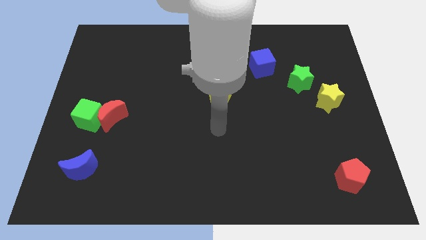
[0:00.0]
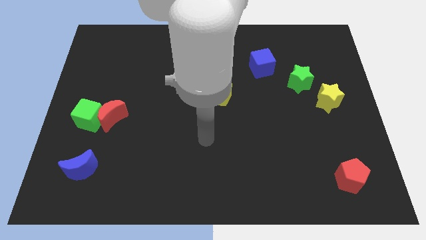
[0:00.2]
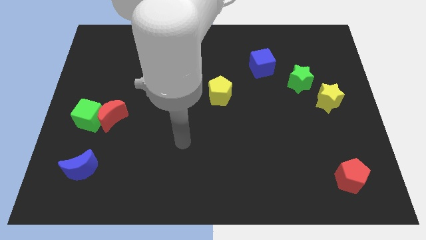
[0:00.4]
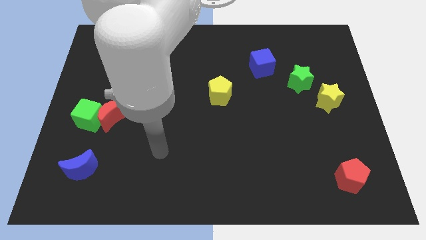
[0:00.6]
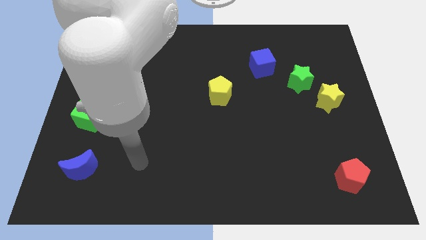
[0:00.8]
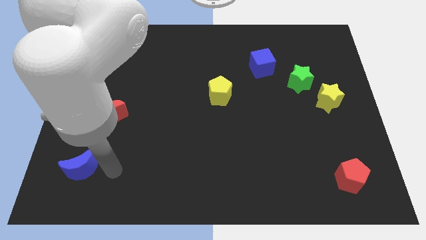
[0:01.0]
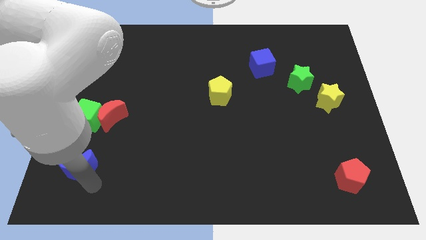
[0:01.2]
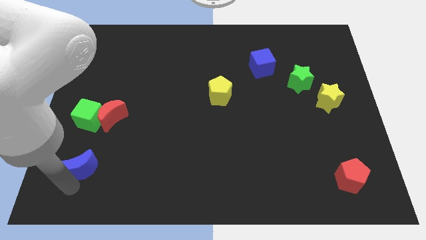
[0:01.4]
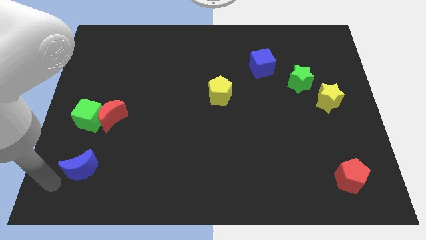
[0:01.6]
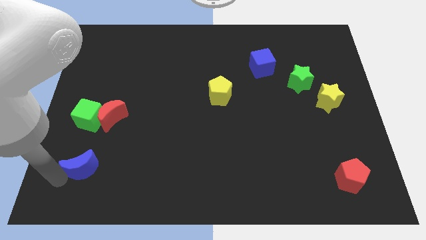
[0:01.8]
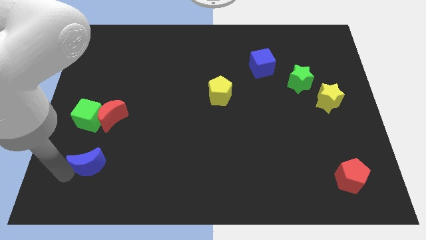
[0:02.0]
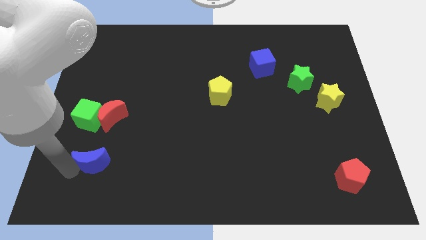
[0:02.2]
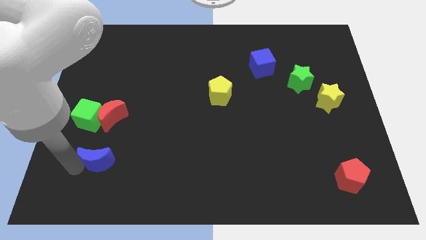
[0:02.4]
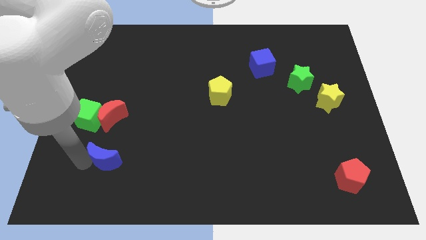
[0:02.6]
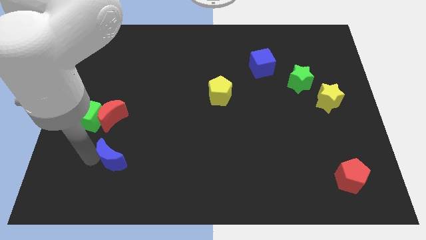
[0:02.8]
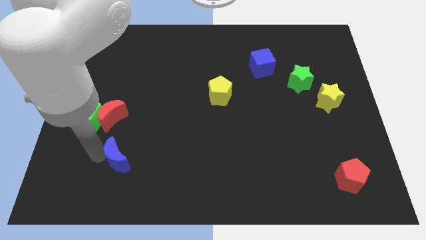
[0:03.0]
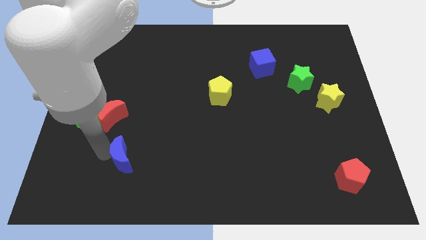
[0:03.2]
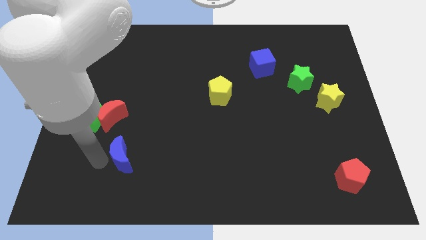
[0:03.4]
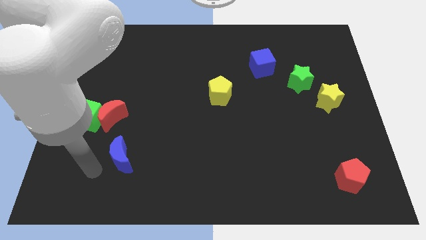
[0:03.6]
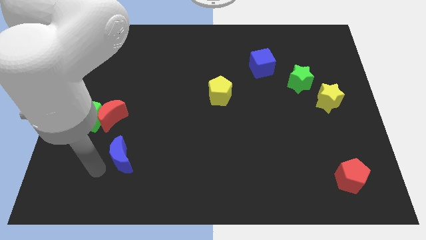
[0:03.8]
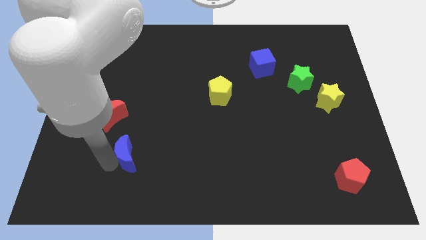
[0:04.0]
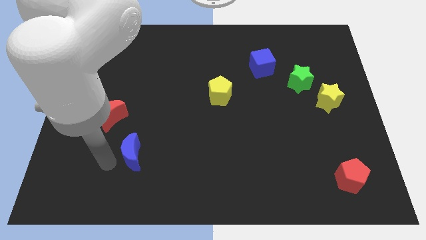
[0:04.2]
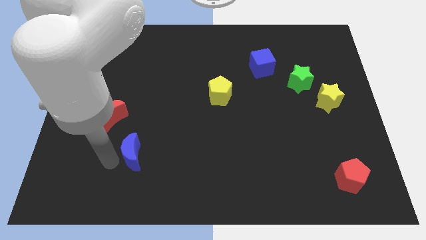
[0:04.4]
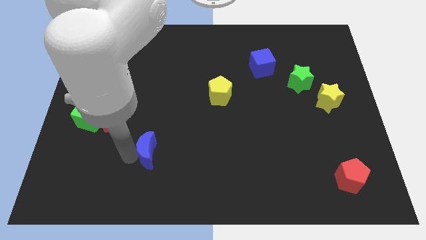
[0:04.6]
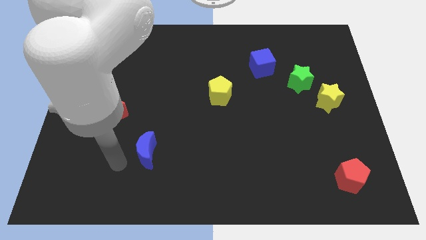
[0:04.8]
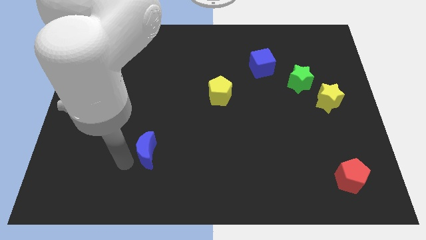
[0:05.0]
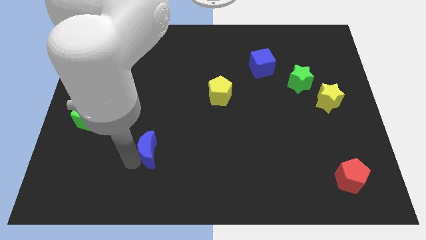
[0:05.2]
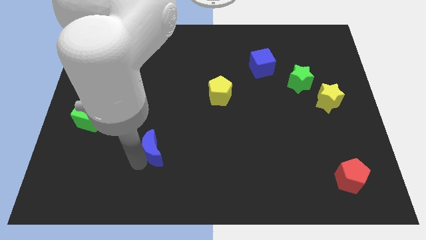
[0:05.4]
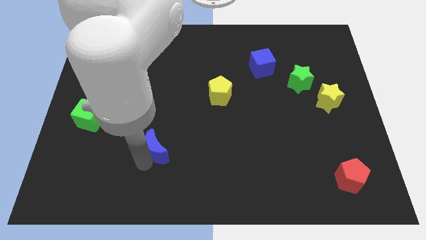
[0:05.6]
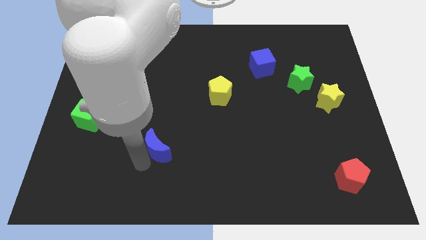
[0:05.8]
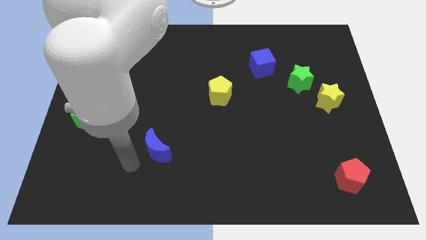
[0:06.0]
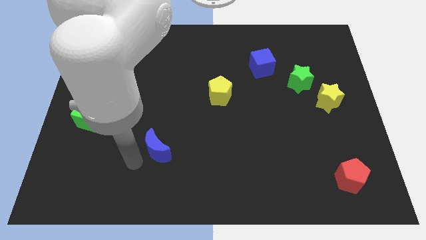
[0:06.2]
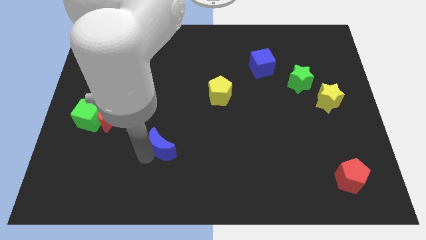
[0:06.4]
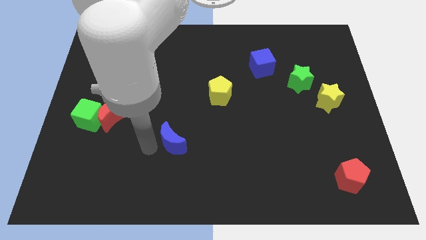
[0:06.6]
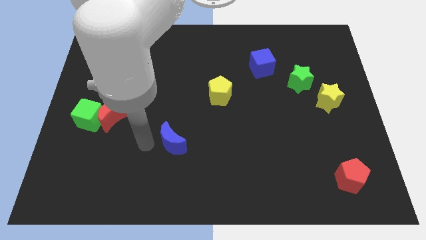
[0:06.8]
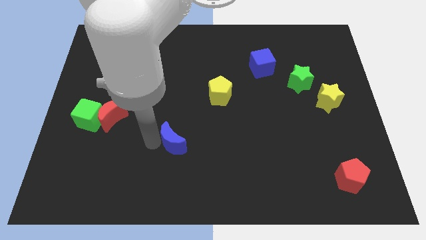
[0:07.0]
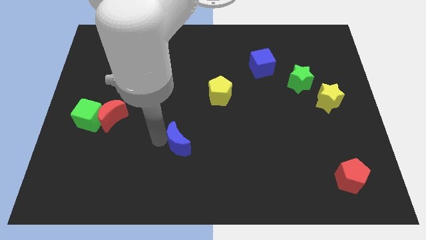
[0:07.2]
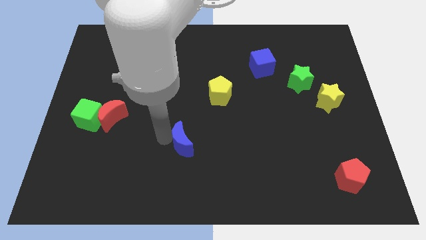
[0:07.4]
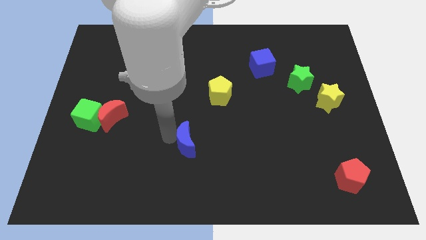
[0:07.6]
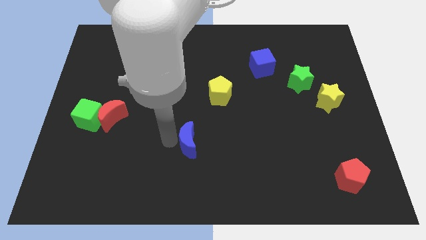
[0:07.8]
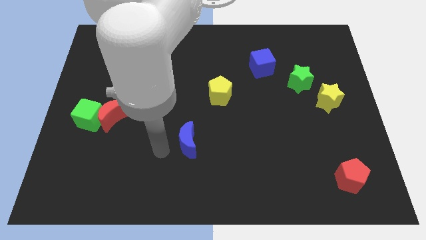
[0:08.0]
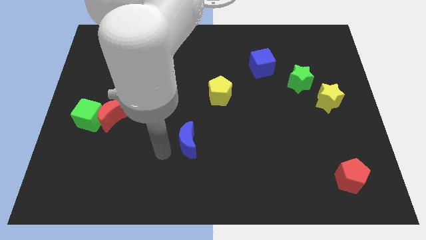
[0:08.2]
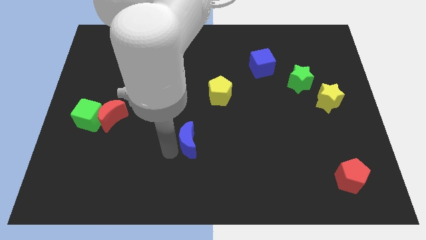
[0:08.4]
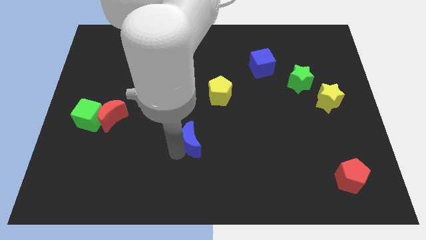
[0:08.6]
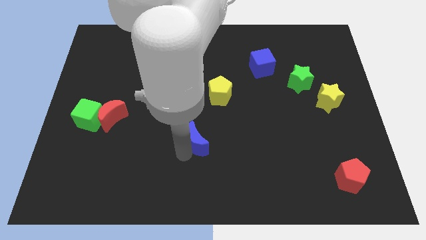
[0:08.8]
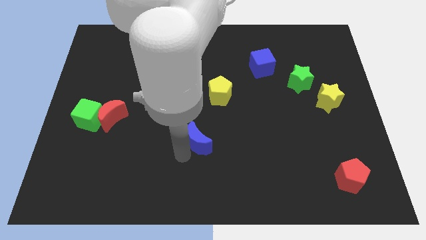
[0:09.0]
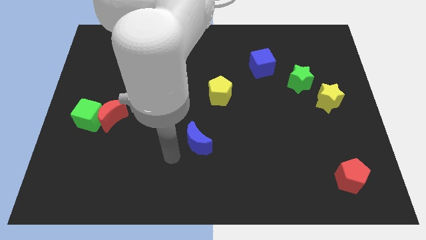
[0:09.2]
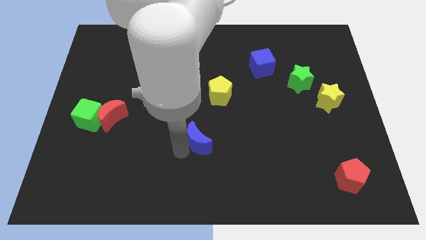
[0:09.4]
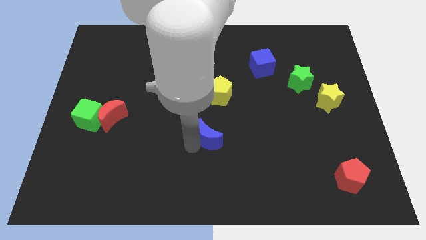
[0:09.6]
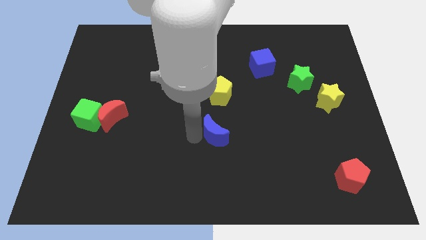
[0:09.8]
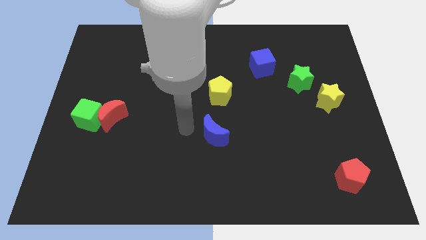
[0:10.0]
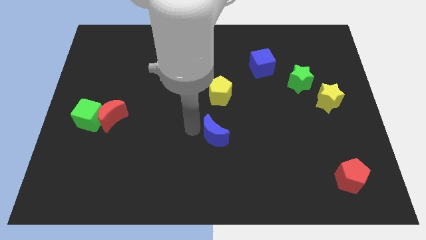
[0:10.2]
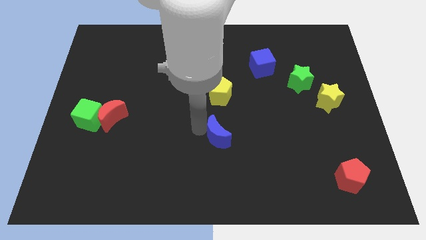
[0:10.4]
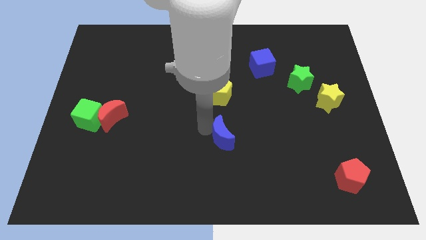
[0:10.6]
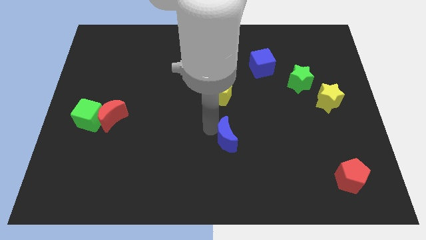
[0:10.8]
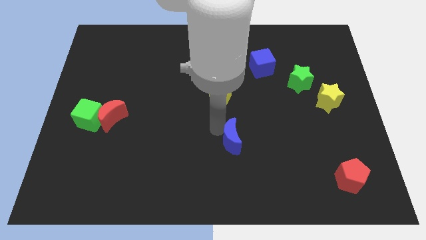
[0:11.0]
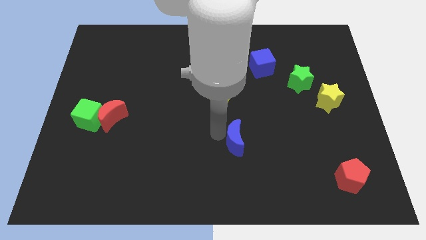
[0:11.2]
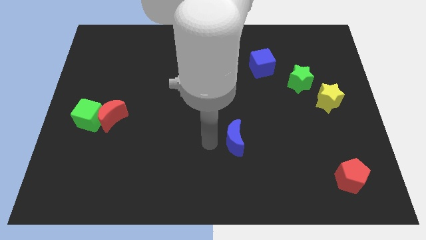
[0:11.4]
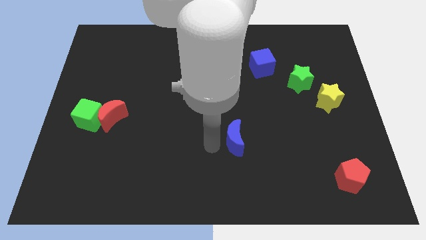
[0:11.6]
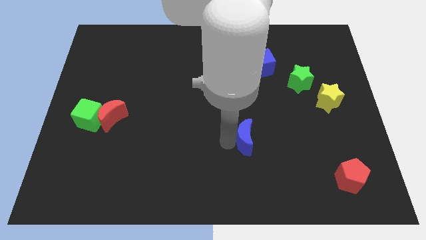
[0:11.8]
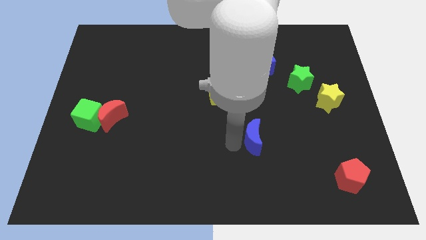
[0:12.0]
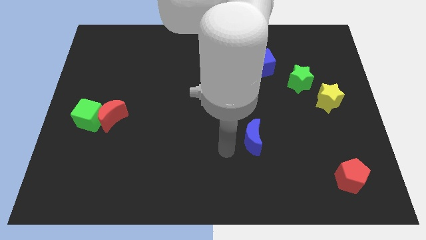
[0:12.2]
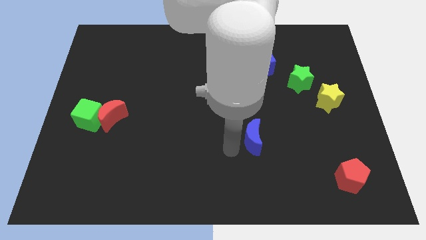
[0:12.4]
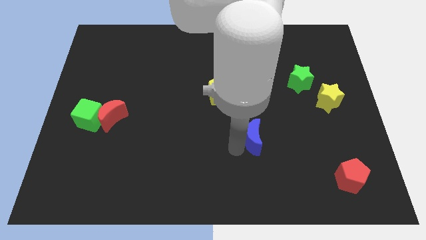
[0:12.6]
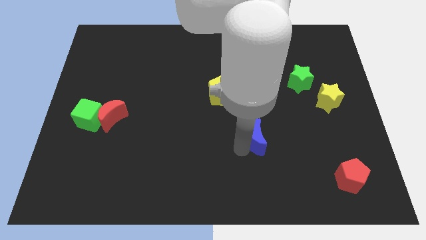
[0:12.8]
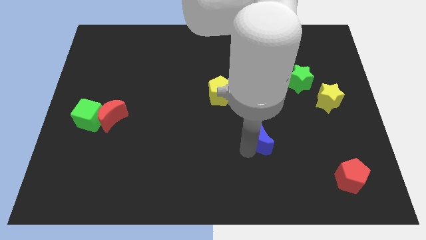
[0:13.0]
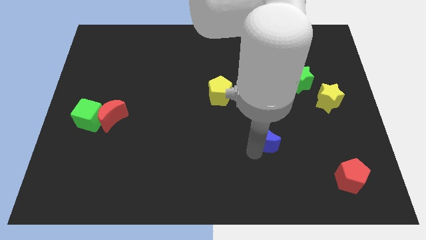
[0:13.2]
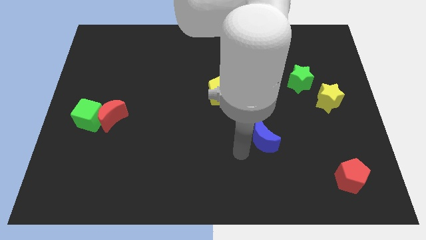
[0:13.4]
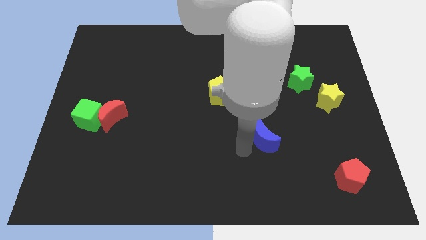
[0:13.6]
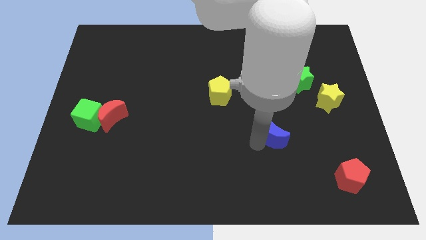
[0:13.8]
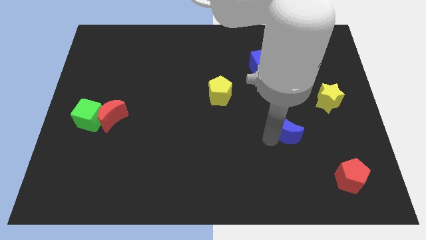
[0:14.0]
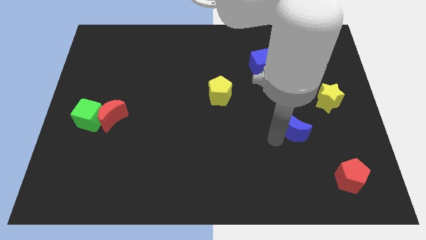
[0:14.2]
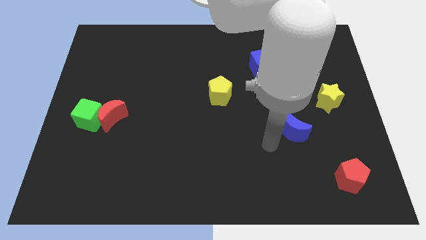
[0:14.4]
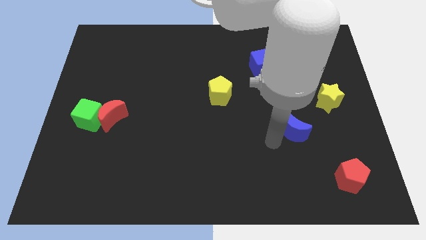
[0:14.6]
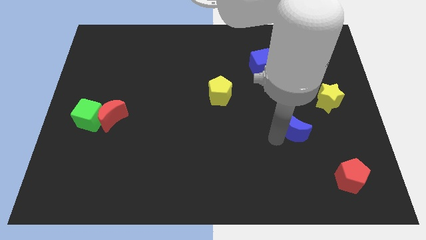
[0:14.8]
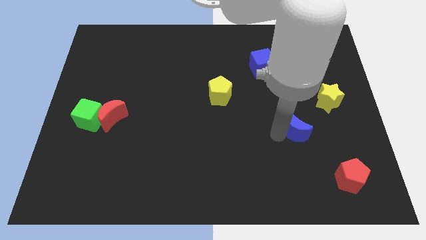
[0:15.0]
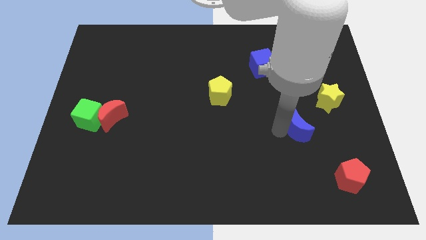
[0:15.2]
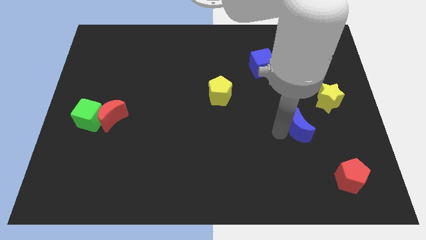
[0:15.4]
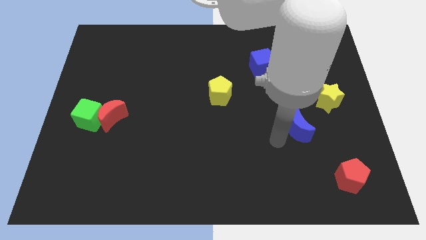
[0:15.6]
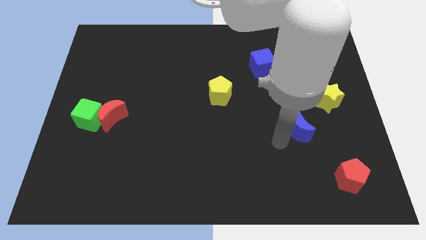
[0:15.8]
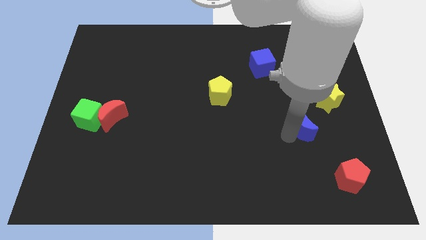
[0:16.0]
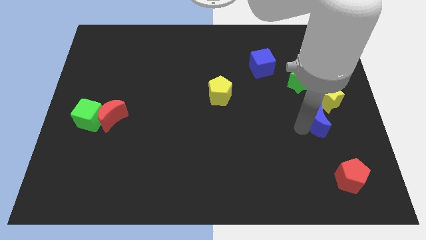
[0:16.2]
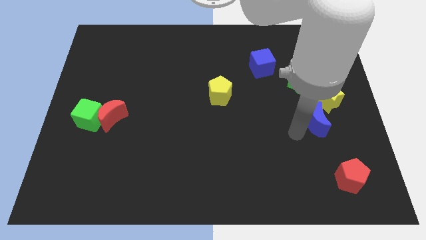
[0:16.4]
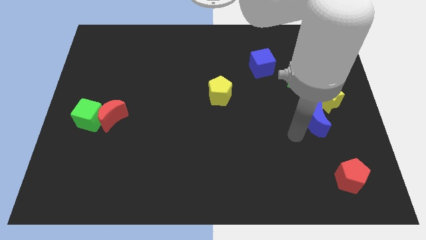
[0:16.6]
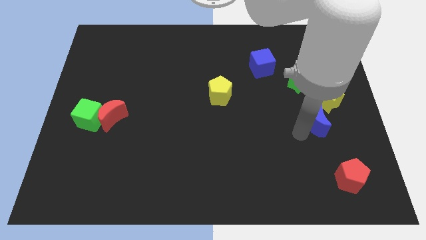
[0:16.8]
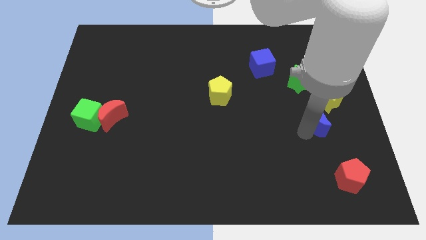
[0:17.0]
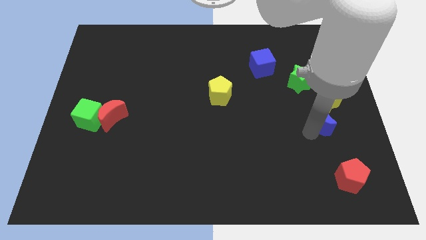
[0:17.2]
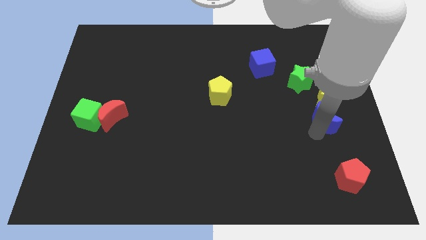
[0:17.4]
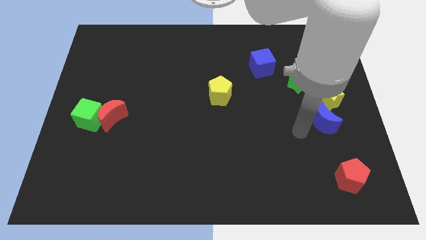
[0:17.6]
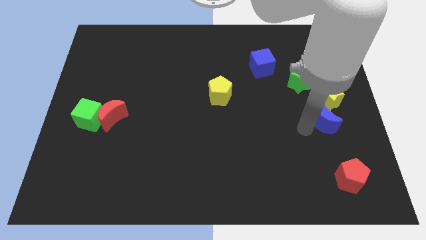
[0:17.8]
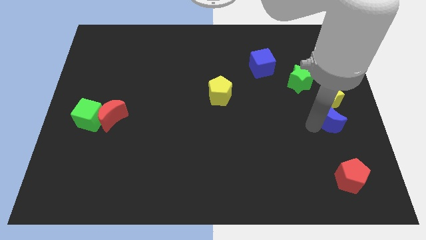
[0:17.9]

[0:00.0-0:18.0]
push the blue moon to the center right
